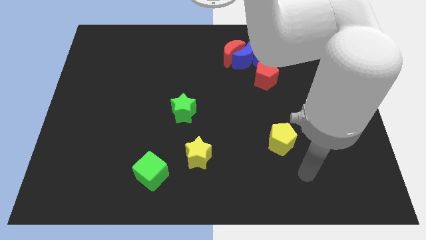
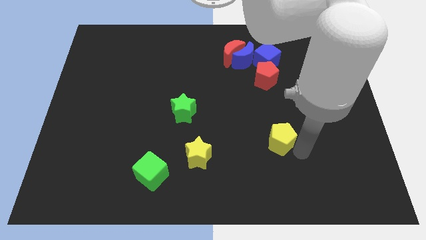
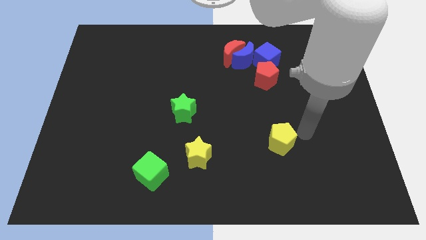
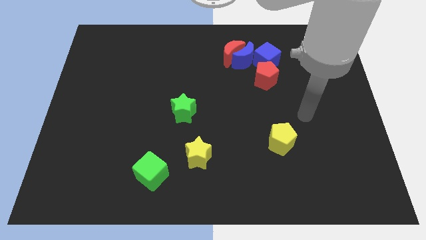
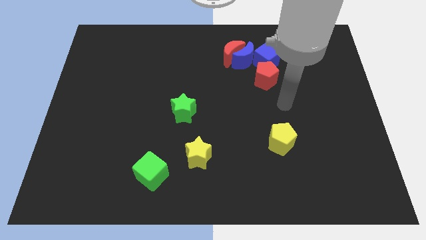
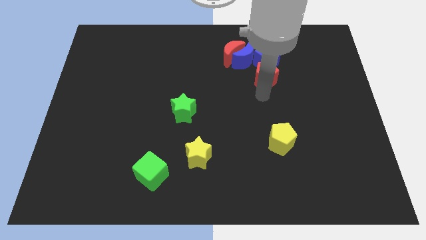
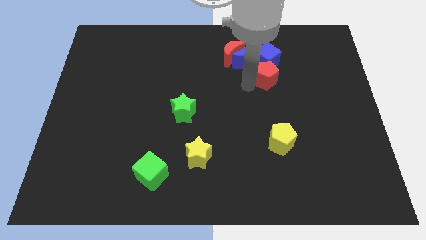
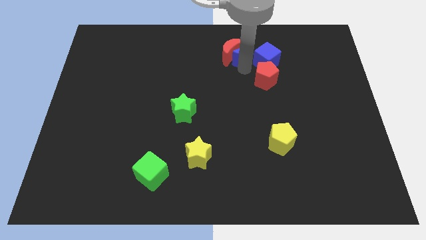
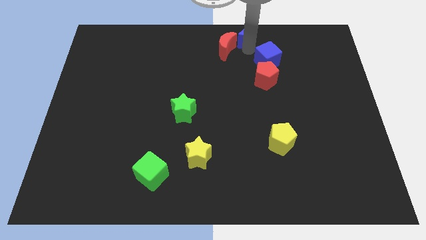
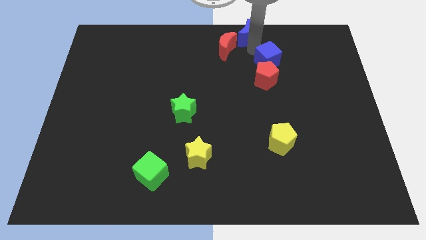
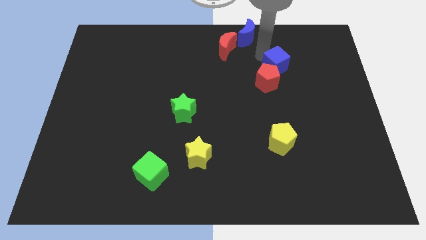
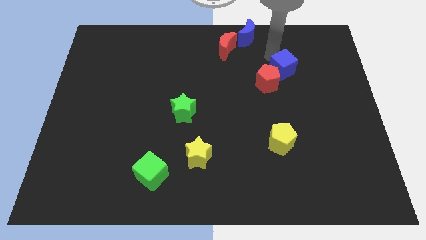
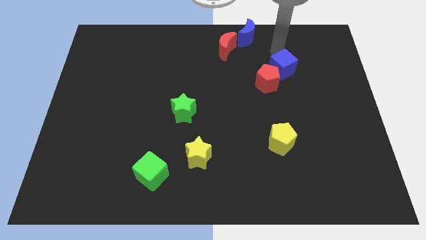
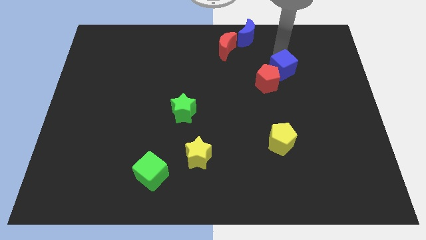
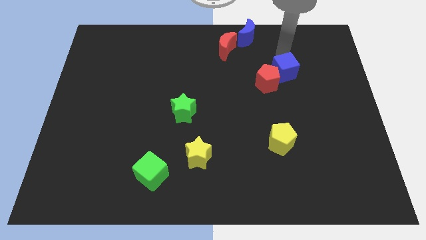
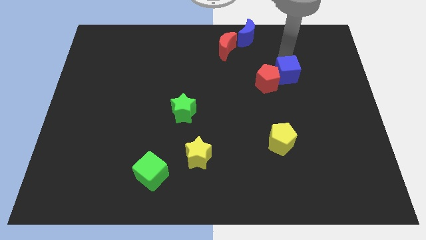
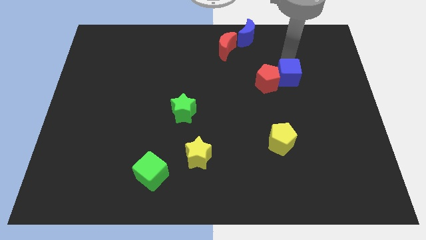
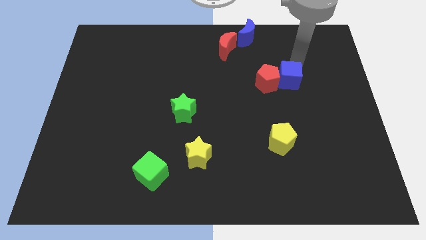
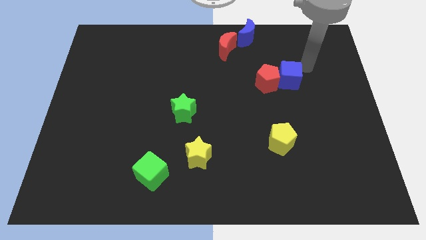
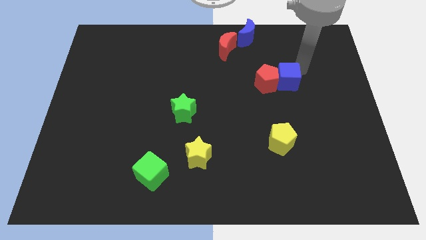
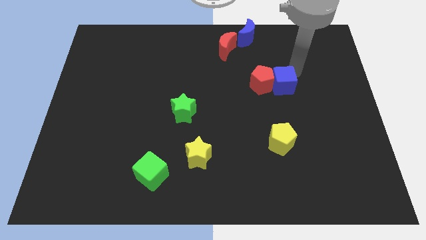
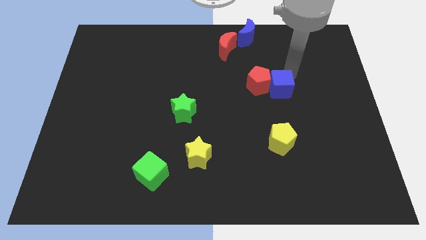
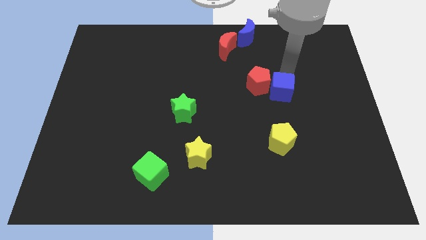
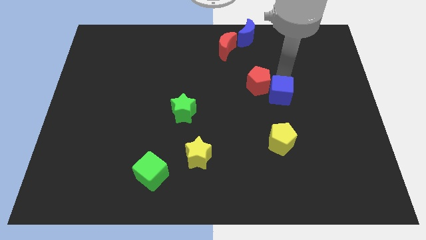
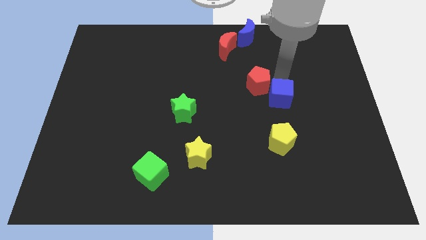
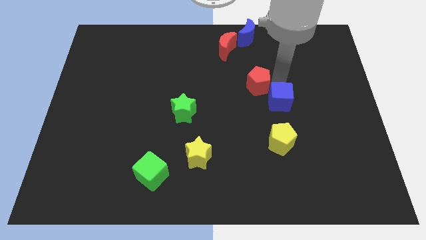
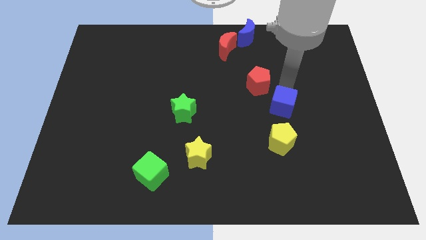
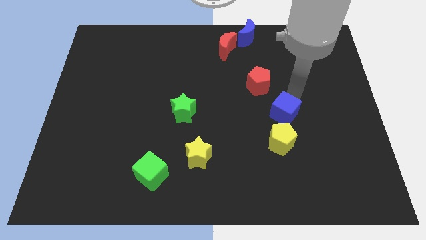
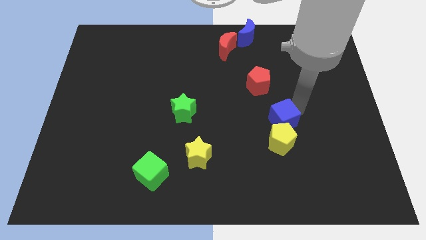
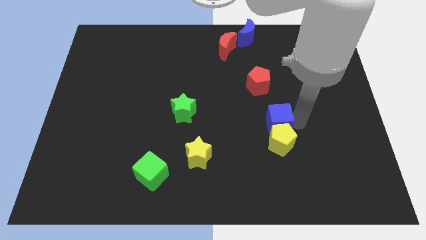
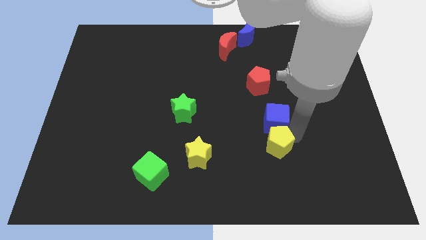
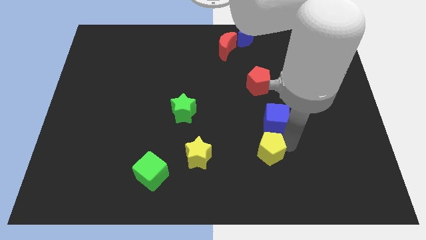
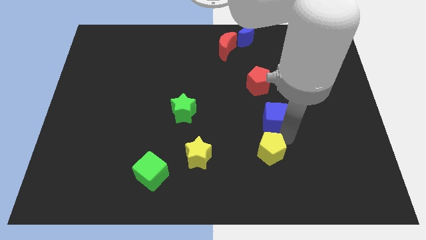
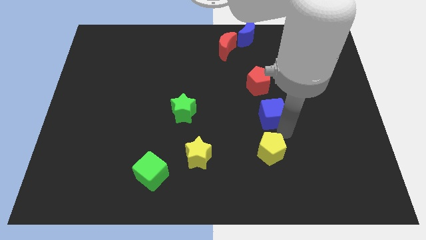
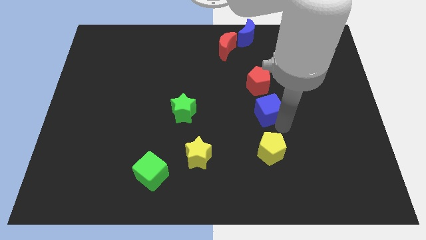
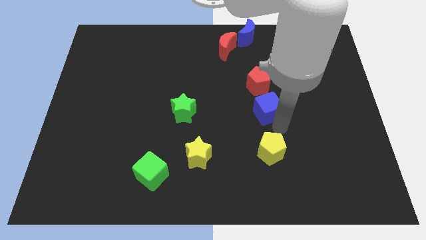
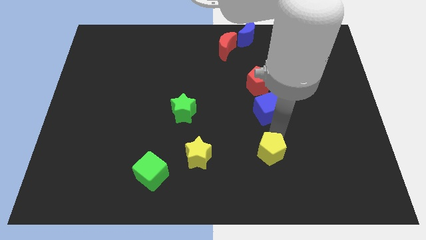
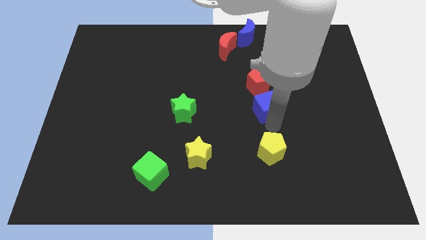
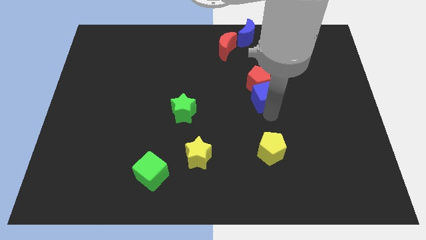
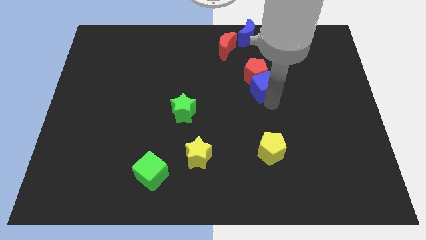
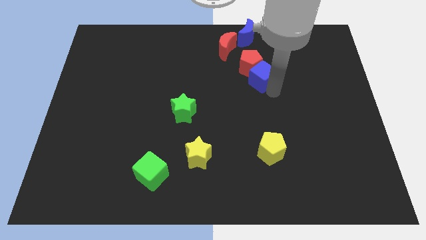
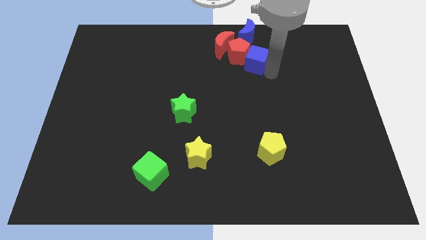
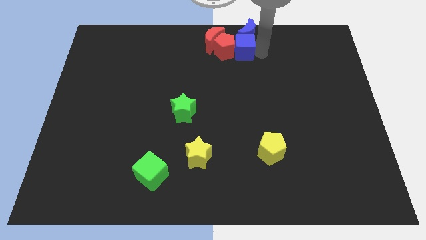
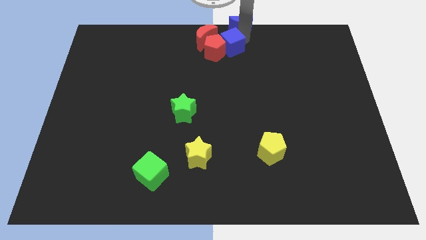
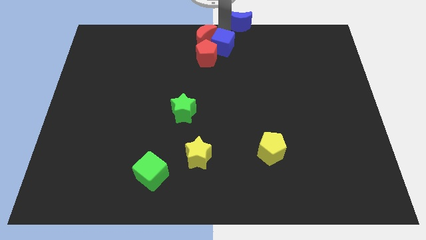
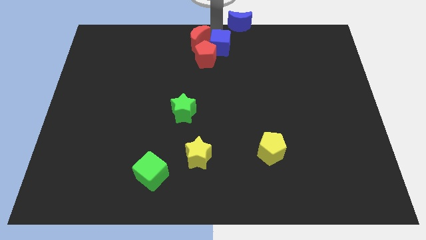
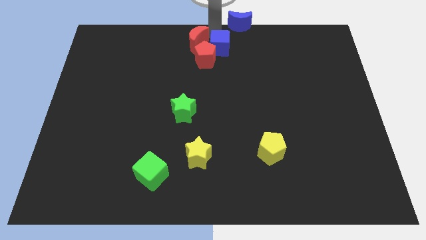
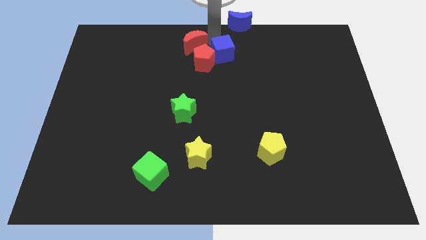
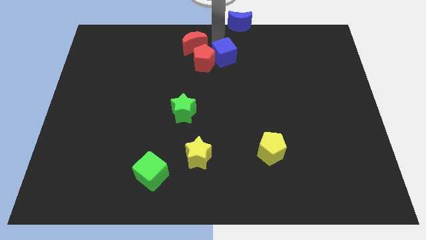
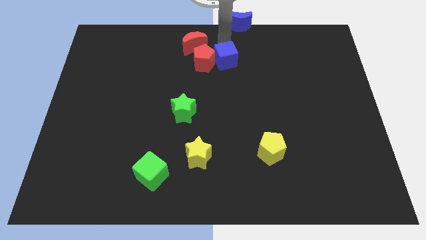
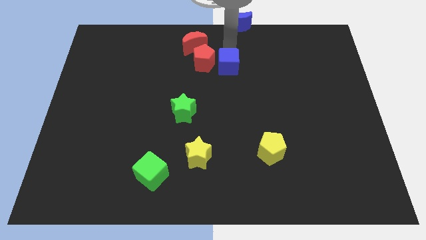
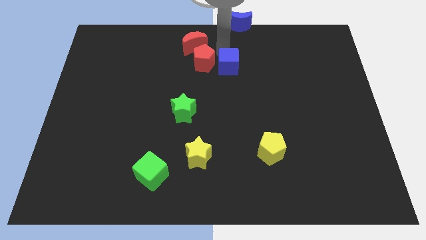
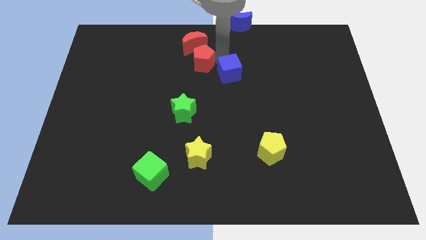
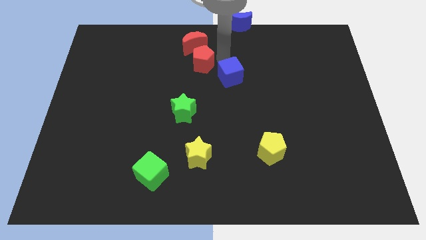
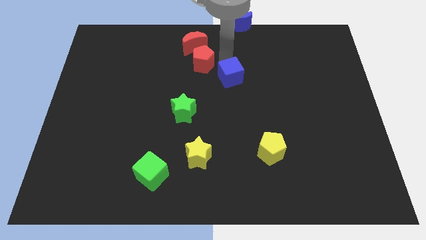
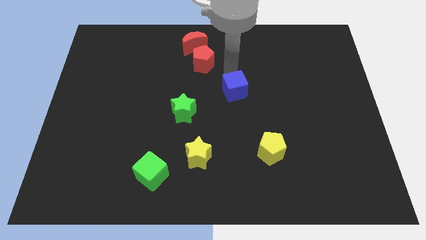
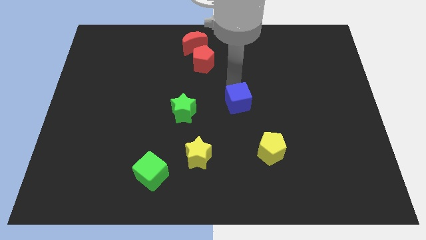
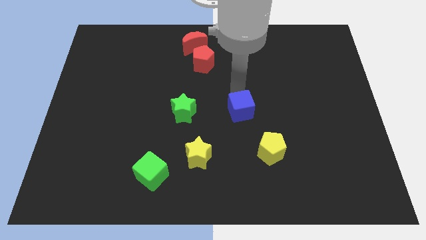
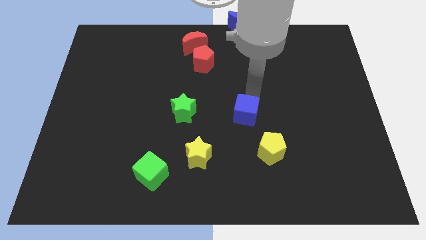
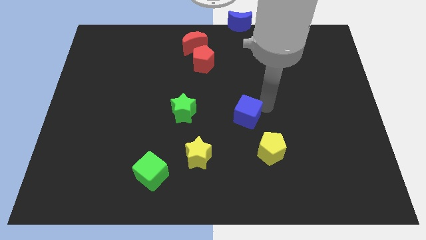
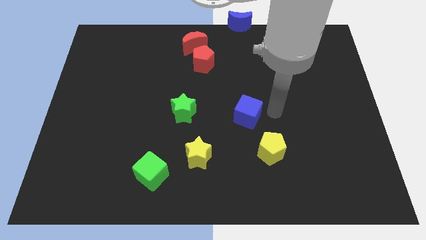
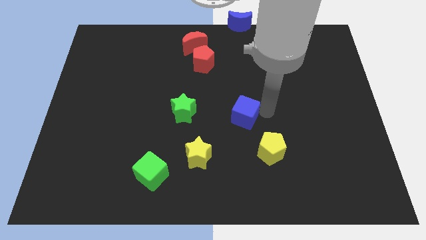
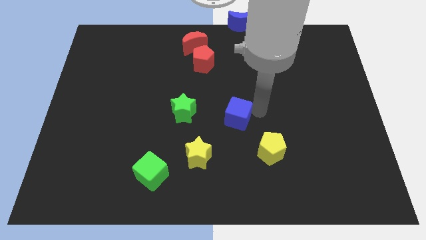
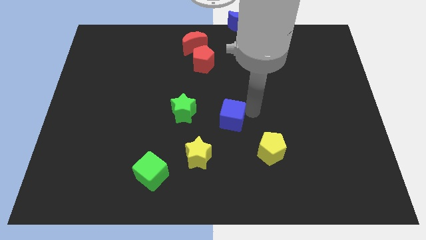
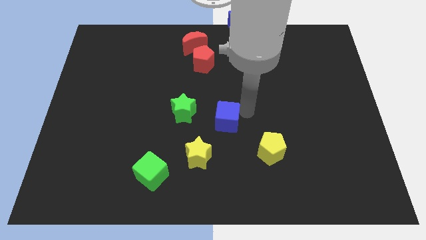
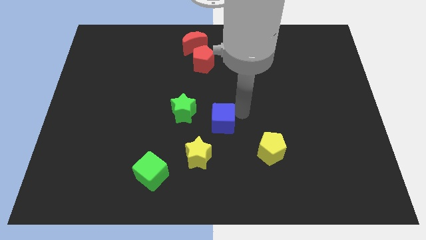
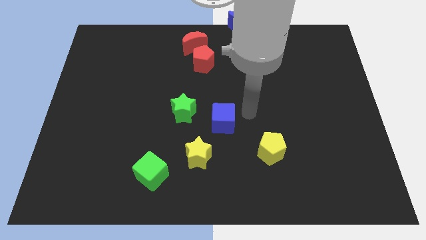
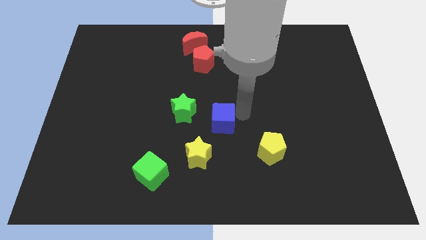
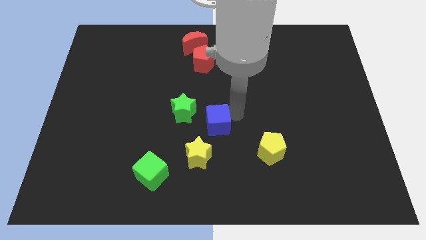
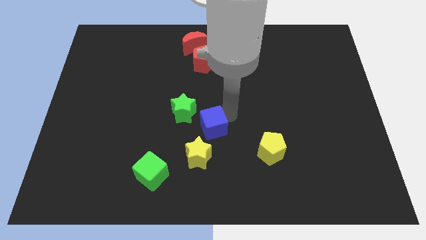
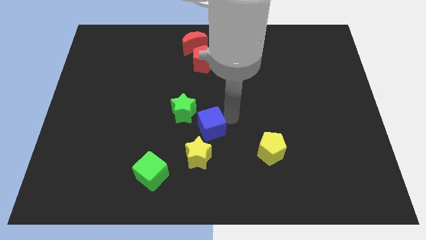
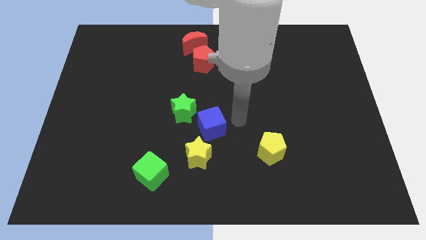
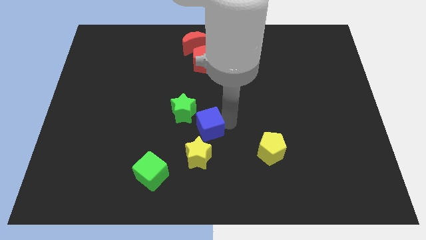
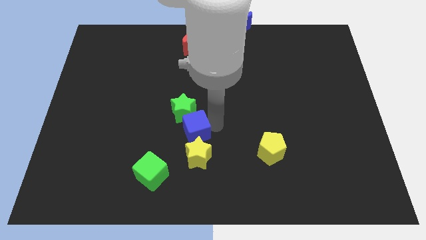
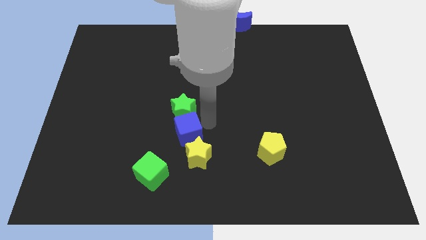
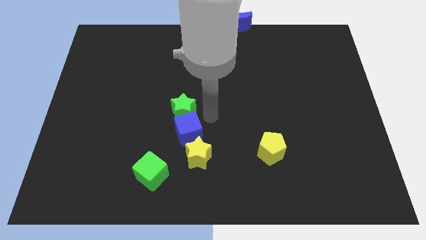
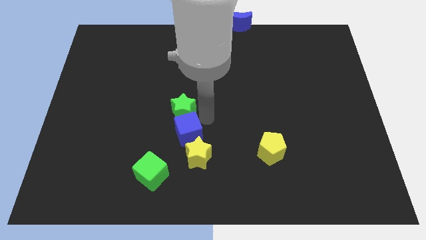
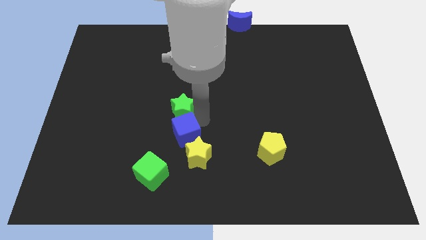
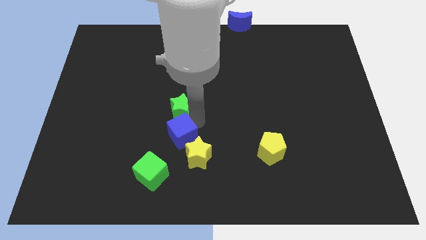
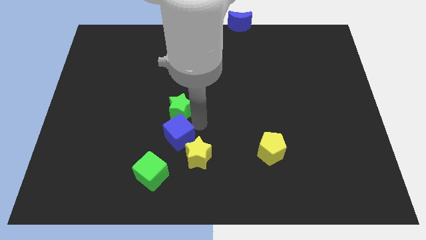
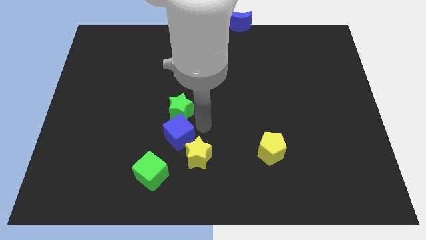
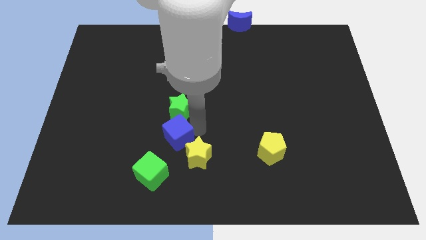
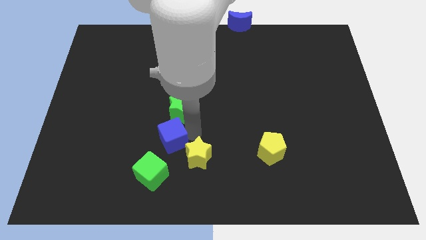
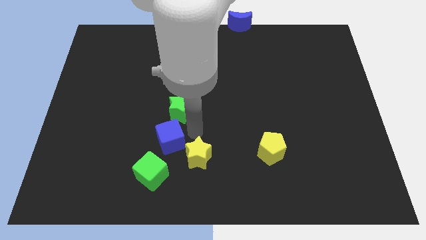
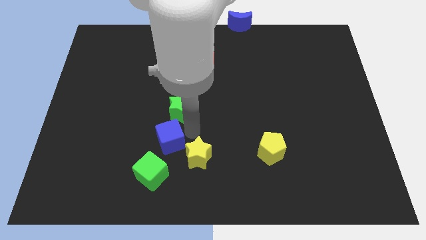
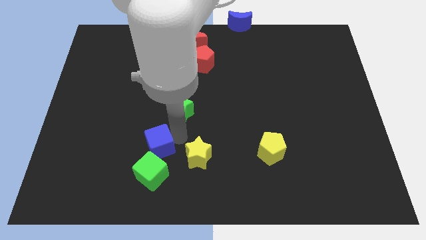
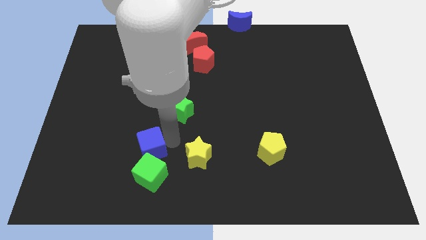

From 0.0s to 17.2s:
move the blue cube to the top left side of the green cube
